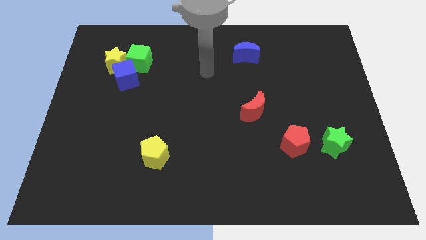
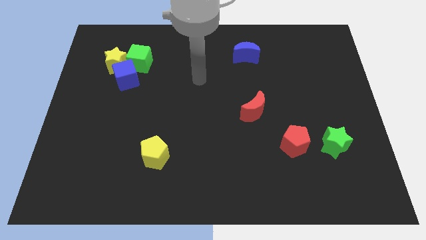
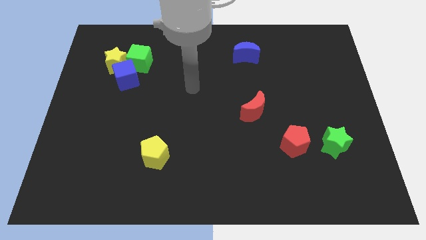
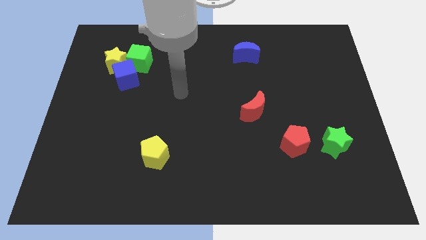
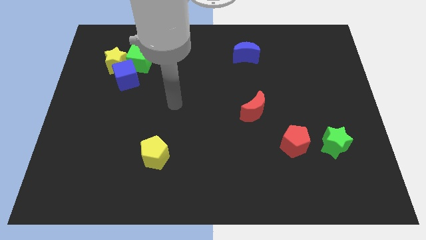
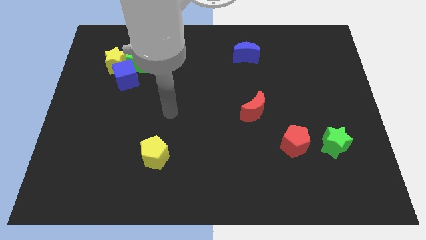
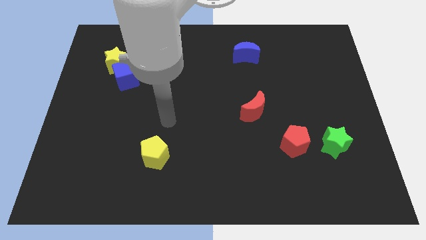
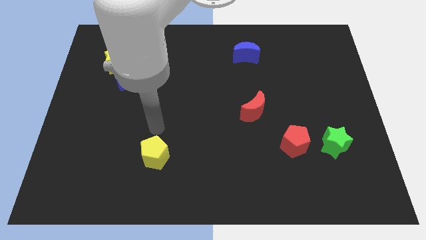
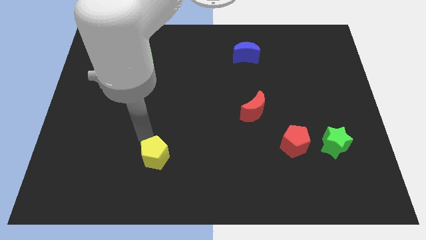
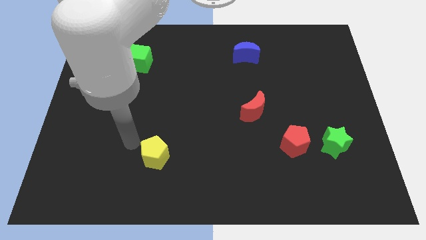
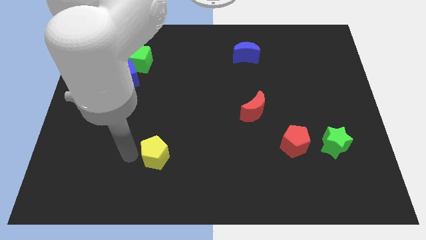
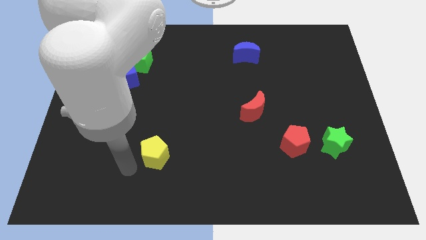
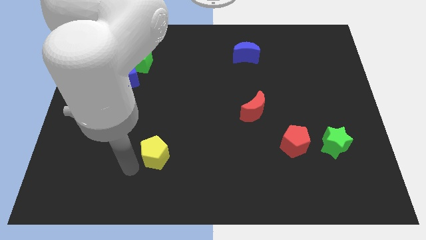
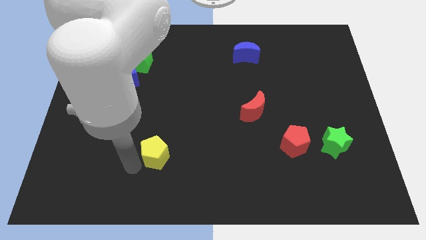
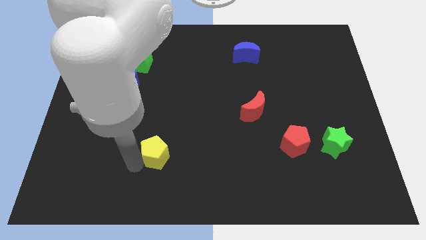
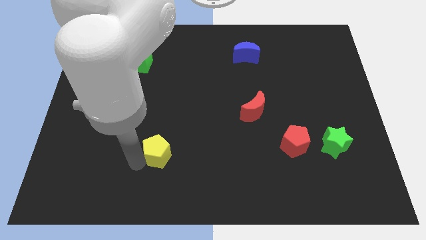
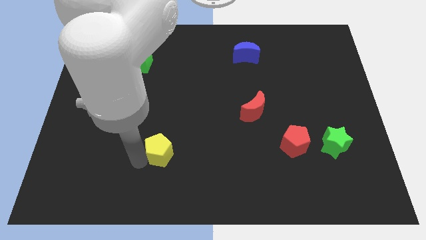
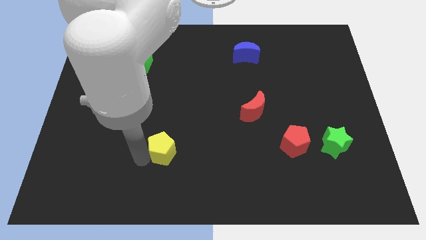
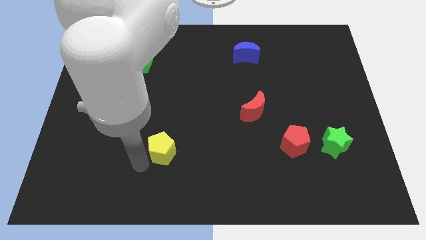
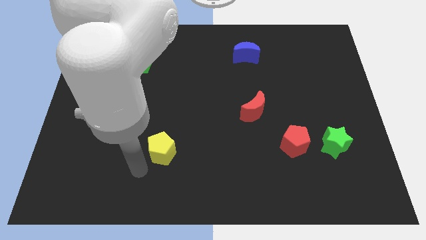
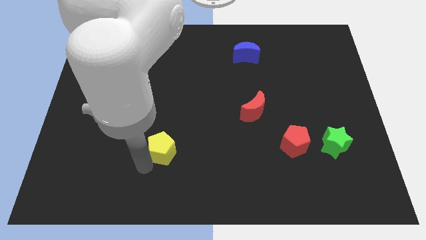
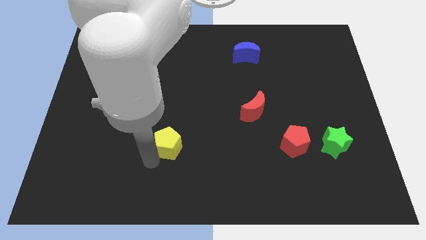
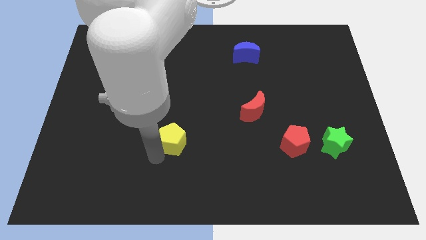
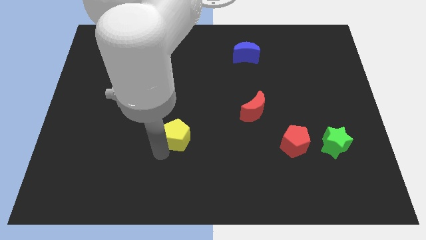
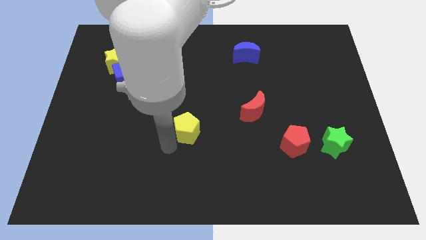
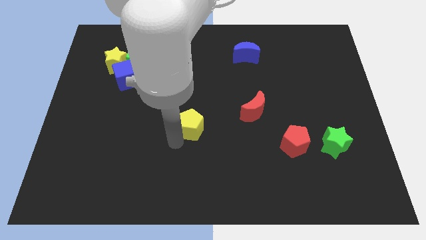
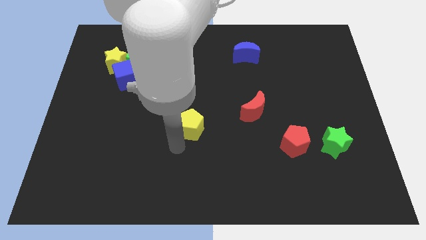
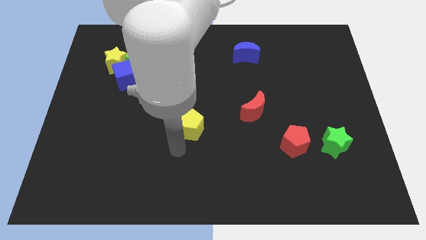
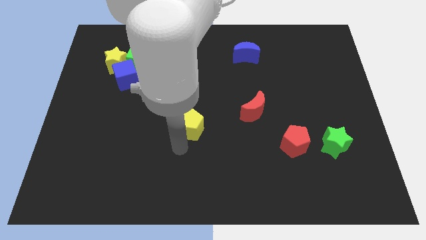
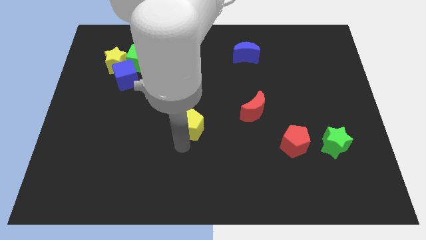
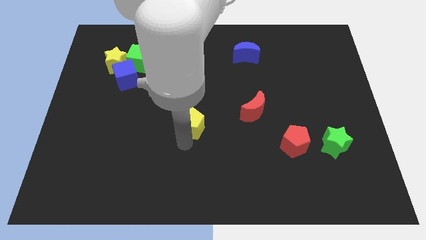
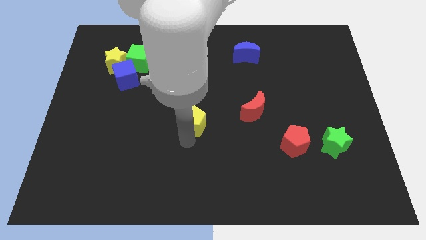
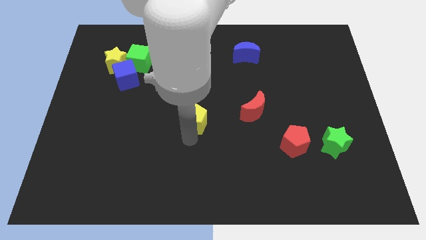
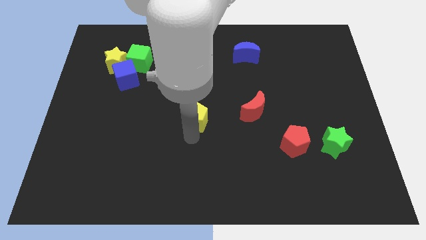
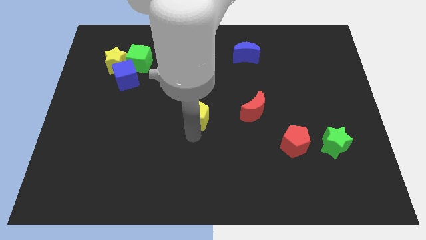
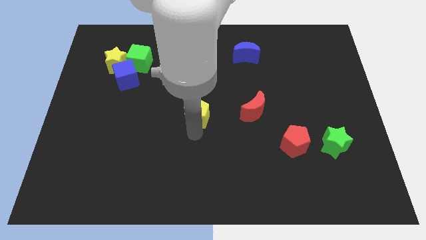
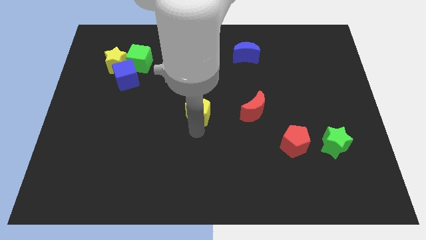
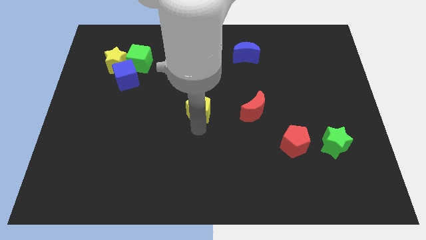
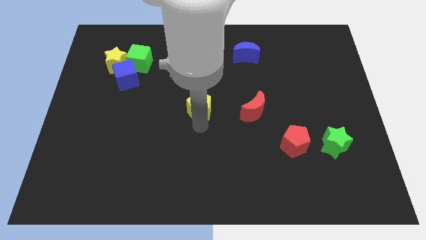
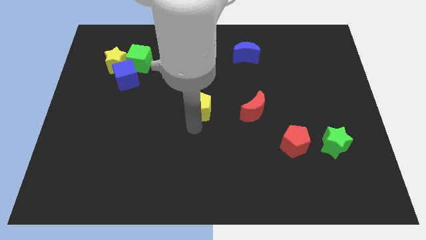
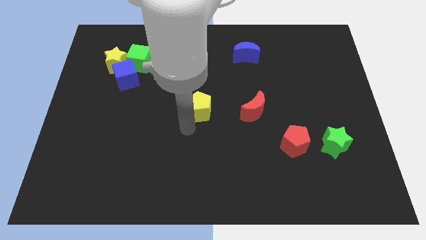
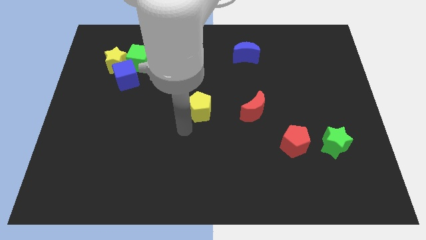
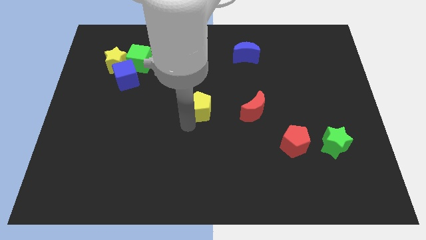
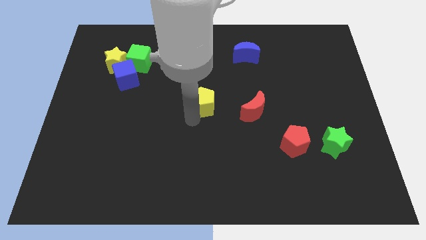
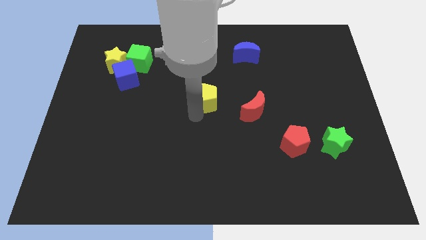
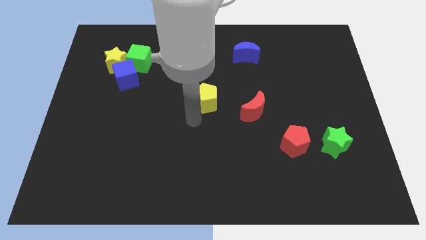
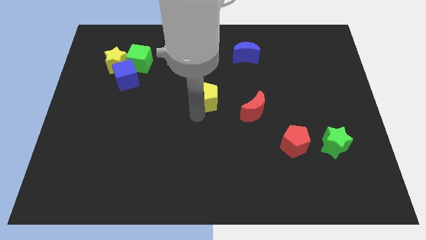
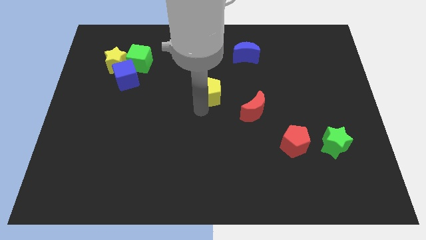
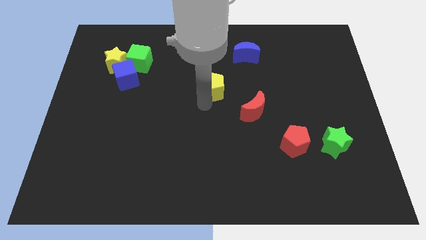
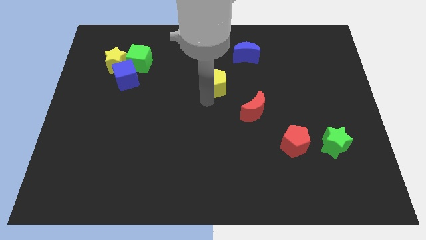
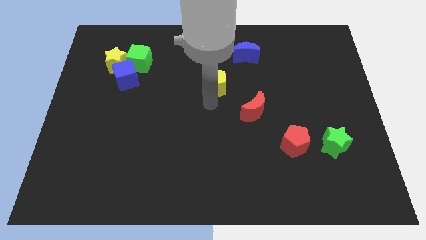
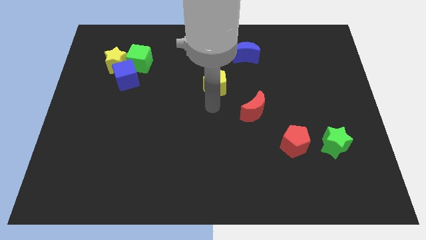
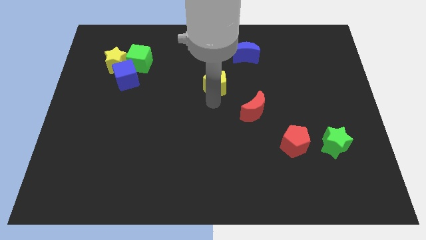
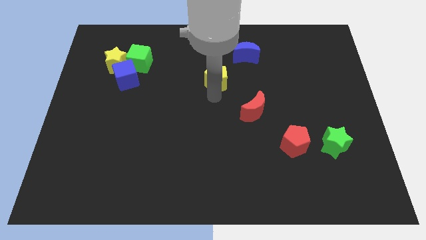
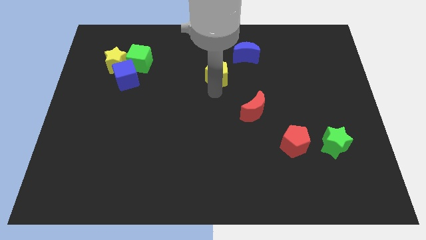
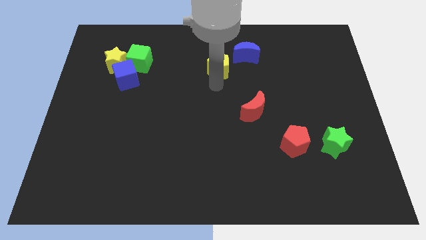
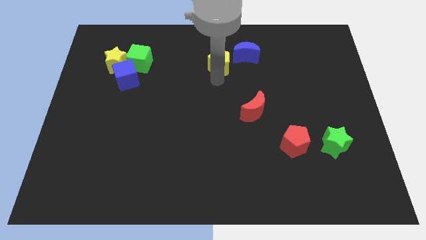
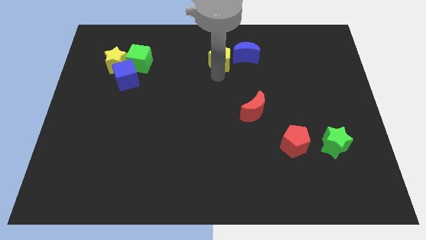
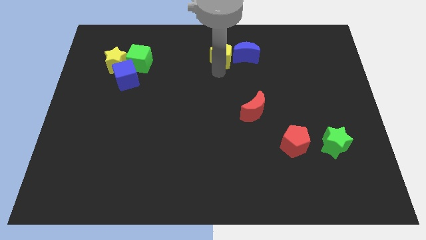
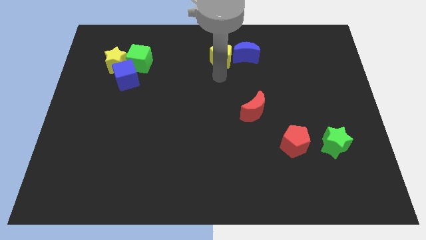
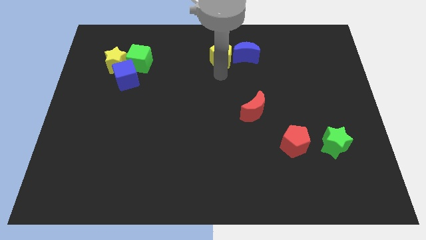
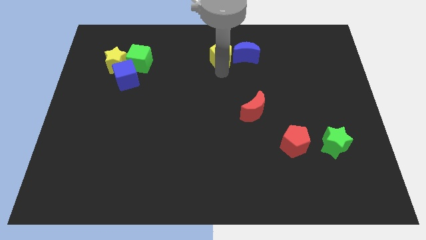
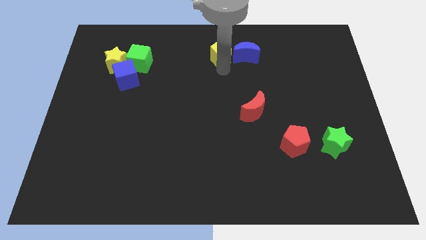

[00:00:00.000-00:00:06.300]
move the yellow pentagon to the top side

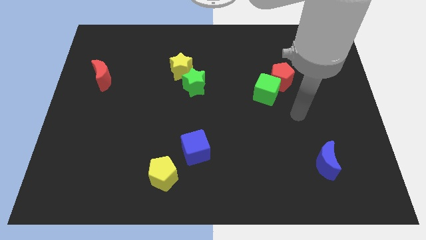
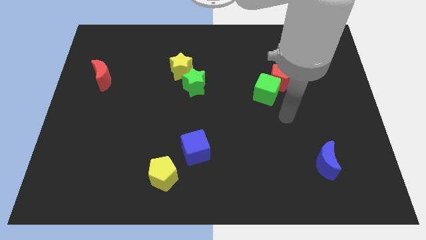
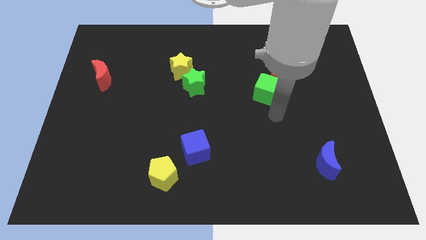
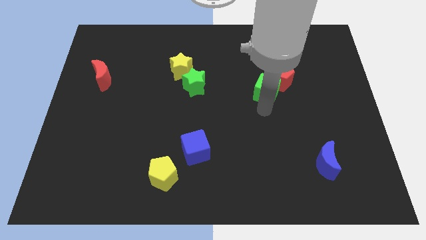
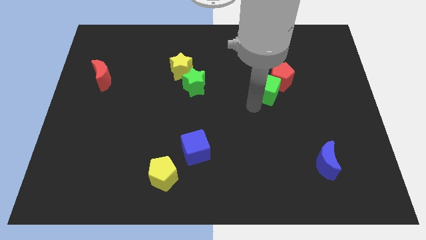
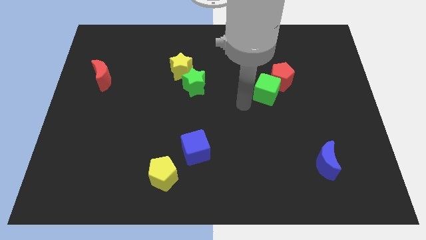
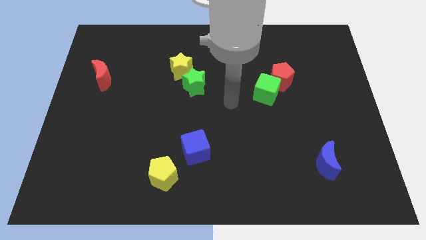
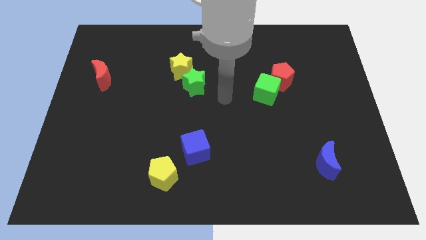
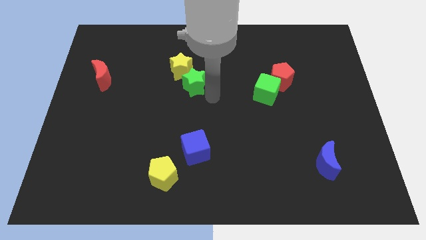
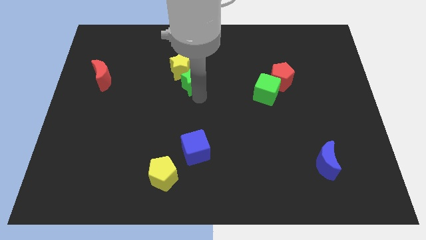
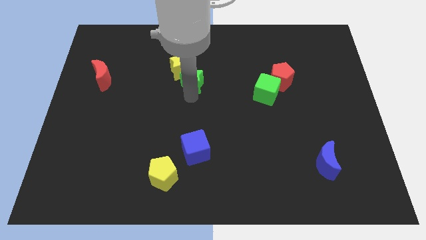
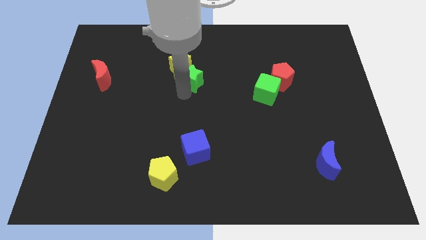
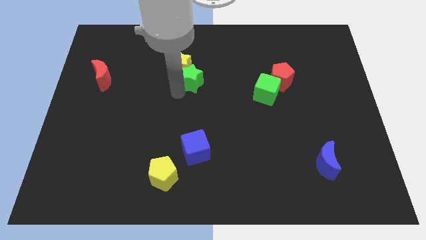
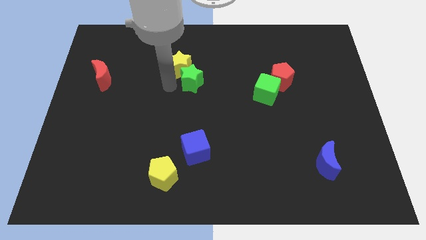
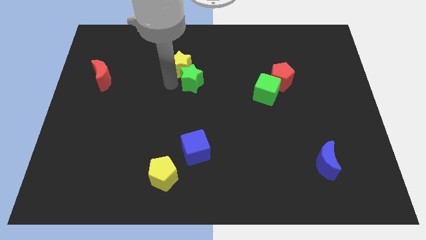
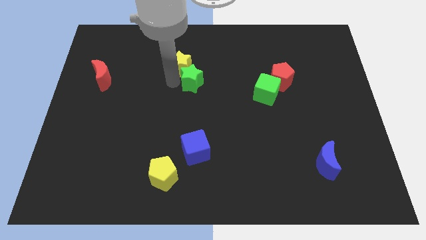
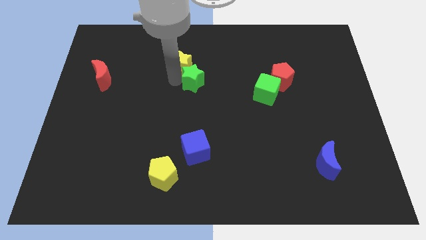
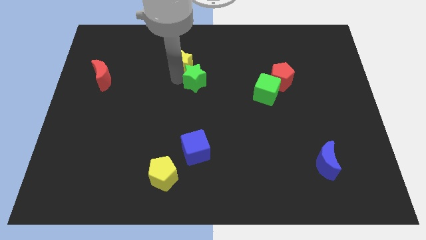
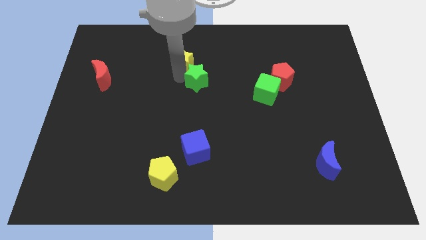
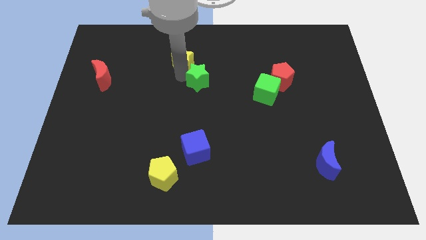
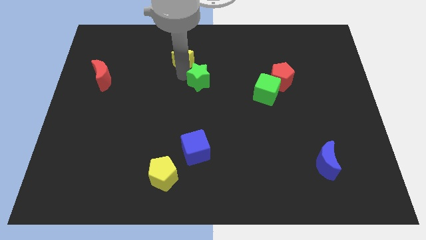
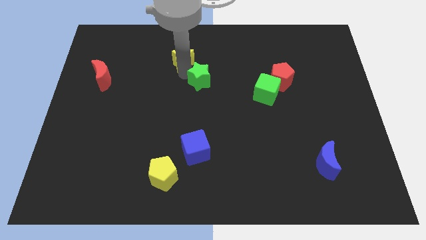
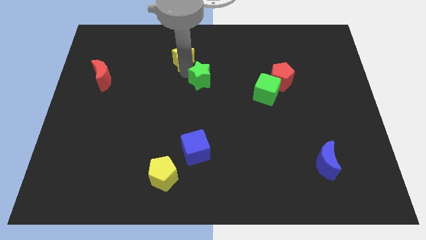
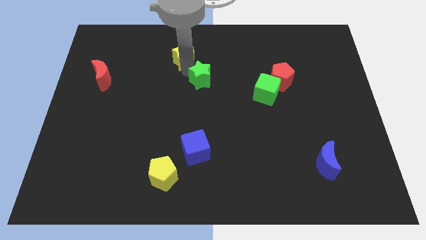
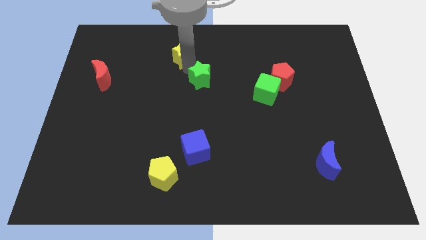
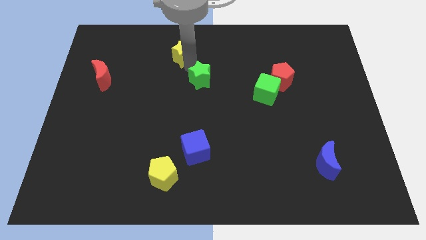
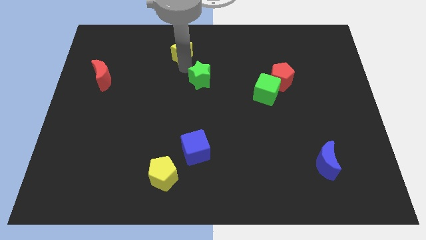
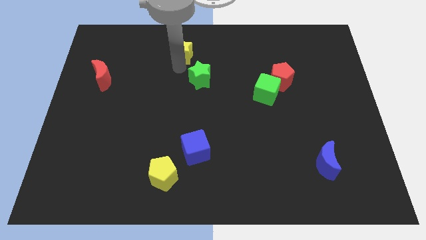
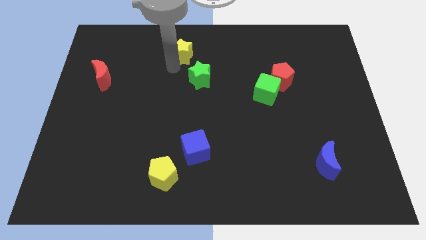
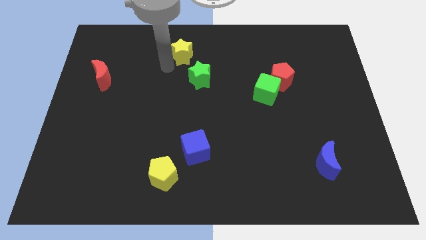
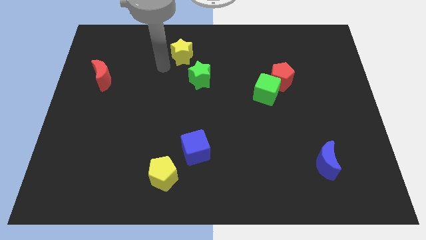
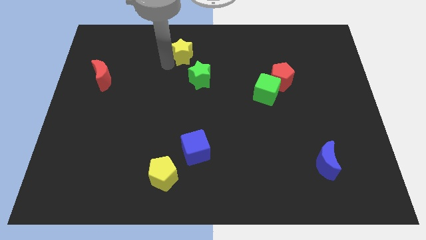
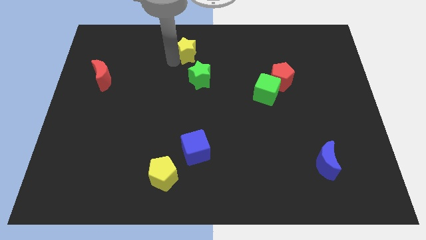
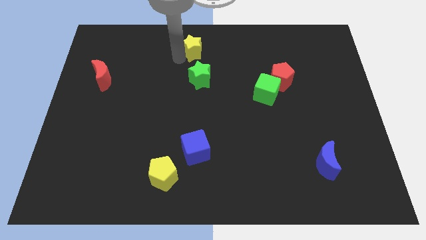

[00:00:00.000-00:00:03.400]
put the yellow star to the top
